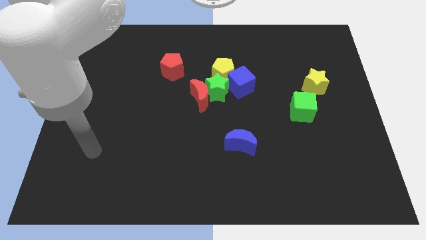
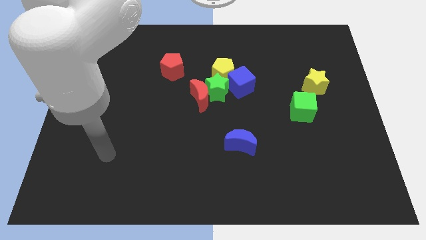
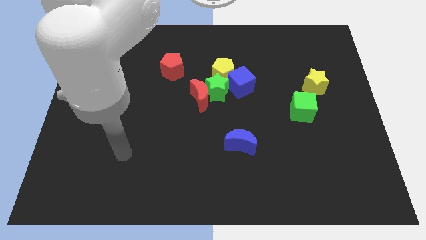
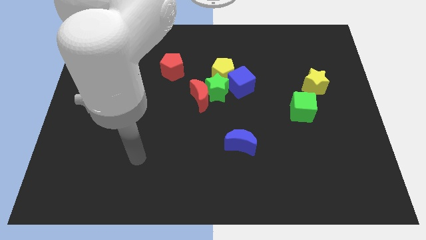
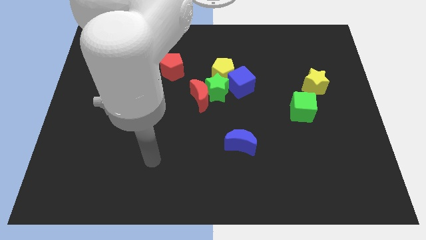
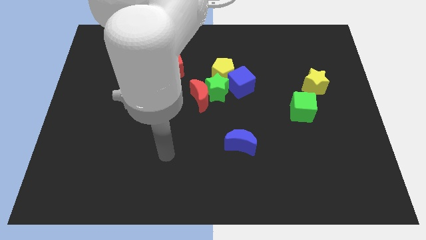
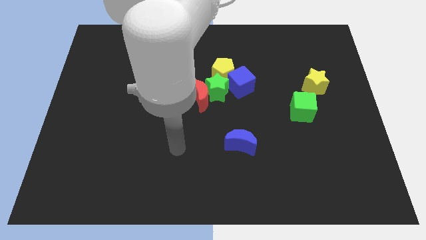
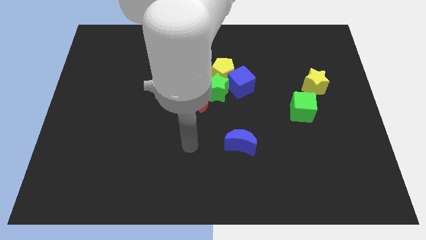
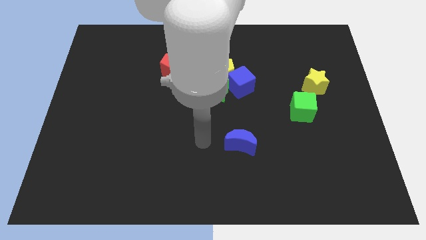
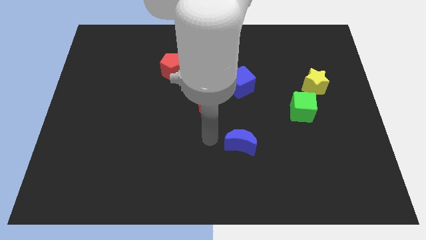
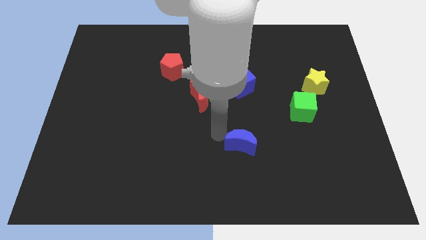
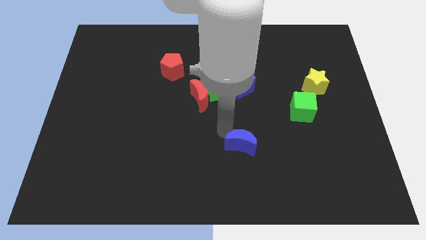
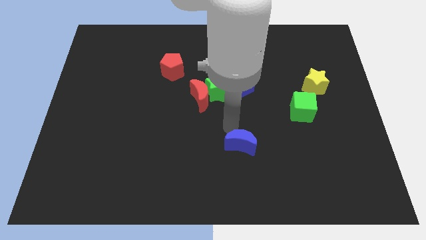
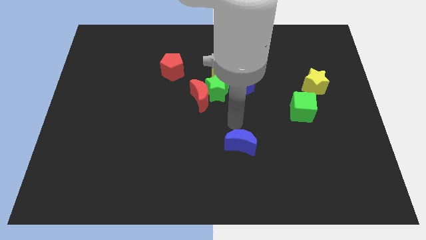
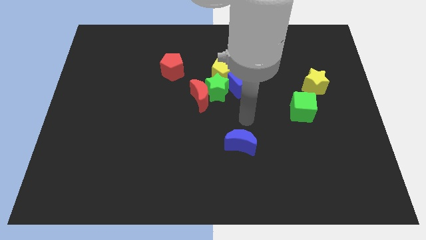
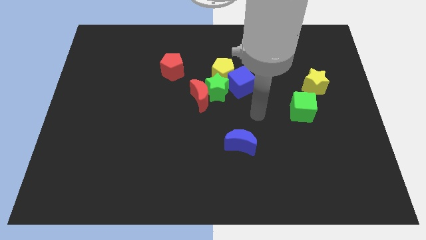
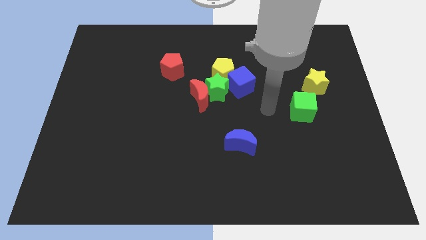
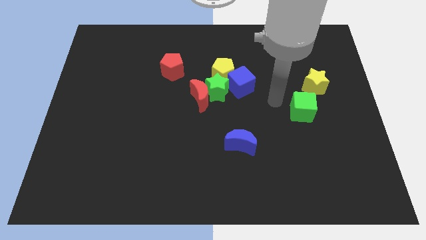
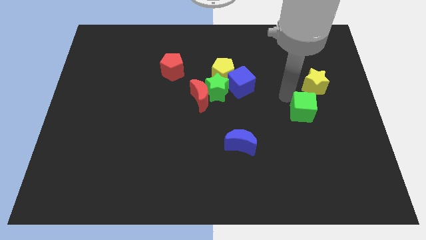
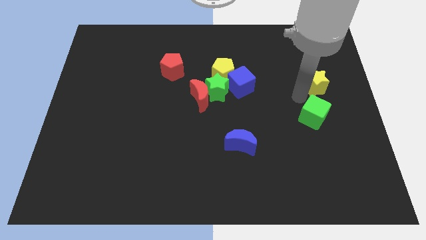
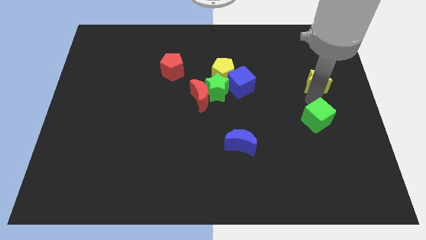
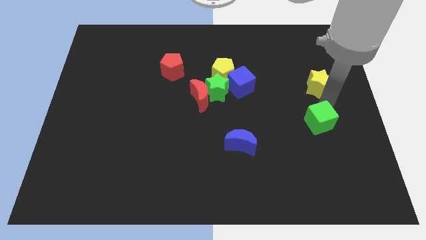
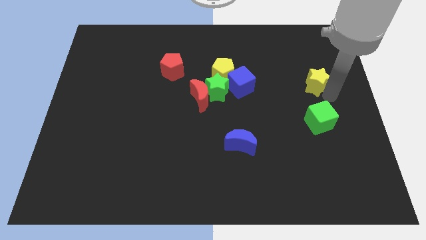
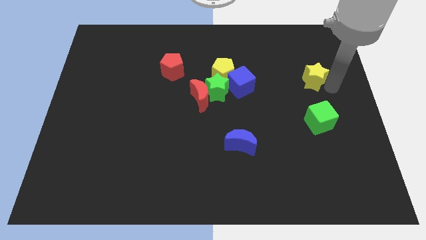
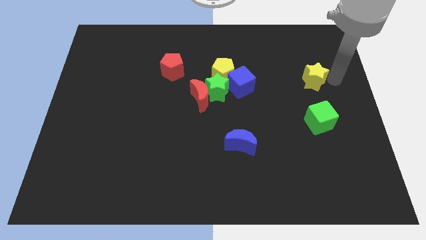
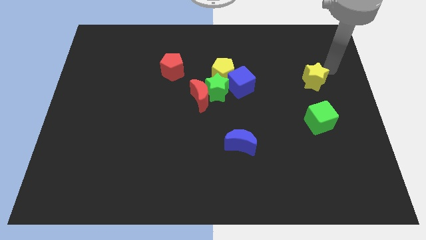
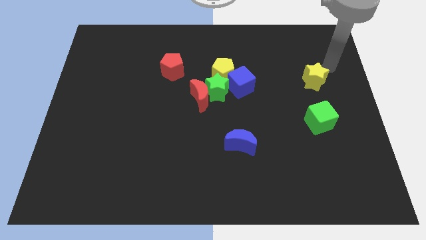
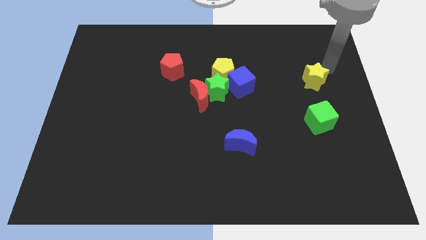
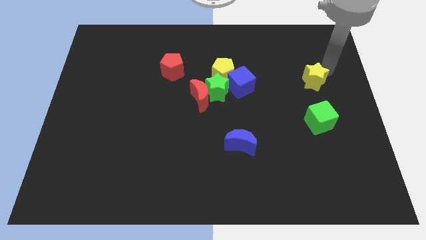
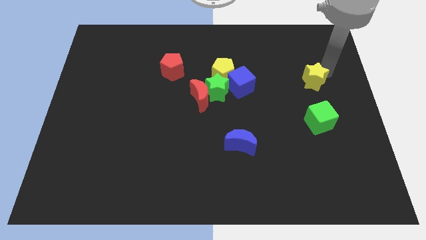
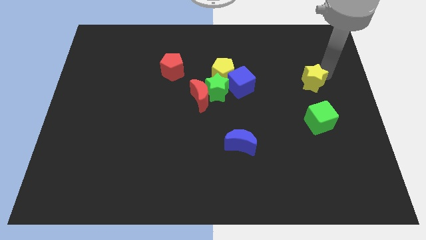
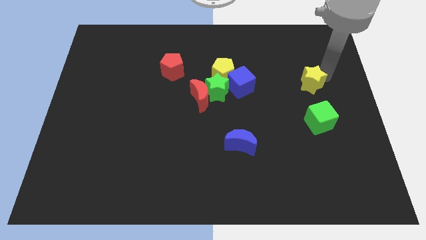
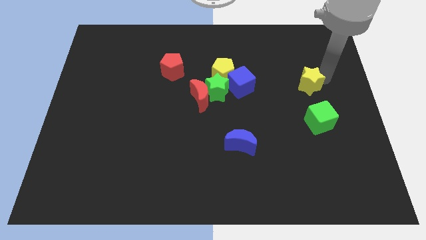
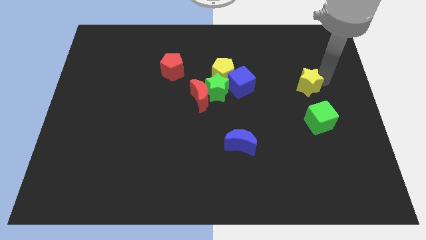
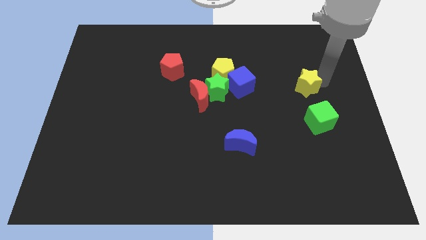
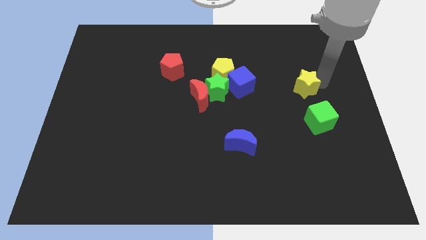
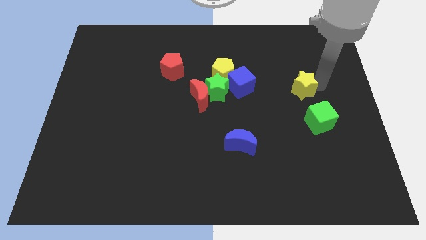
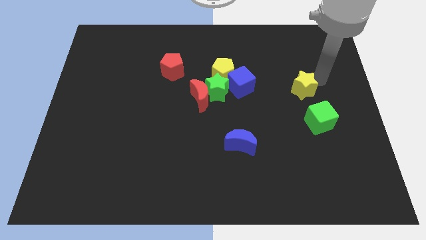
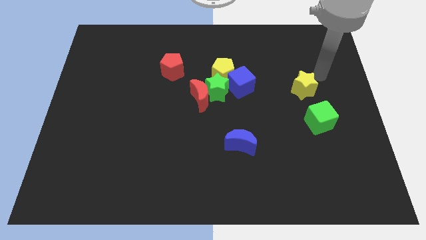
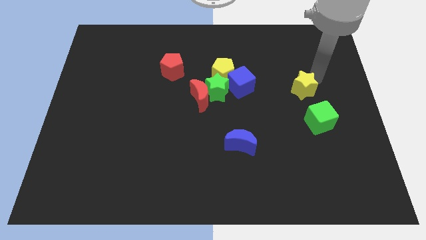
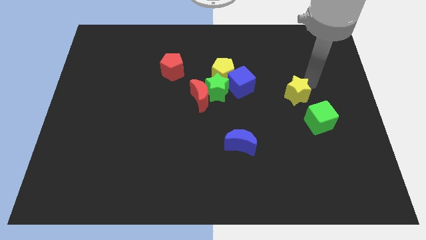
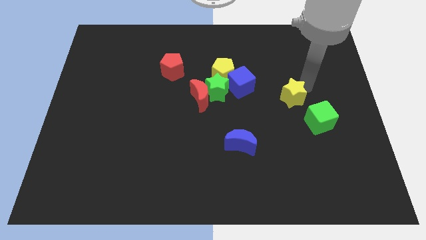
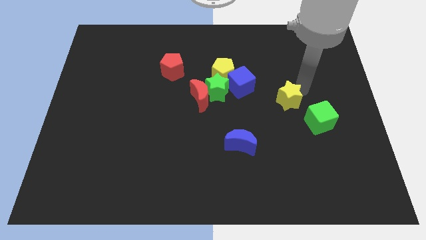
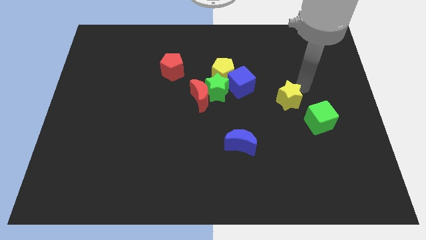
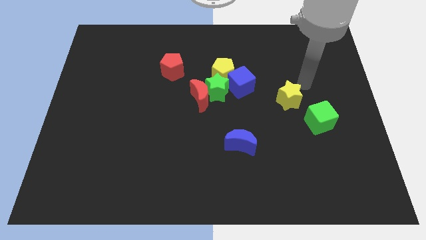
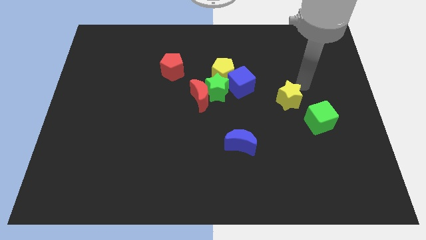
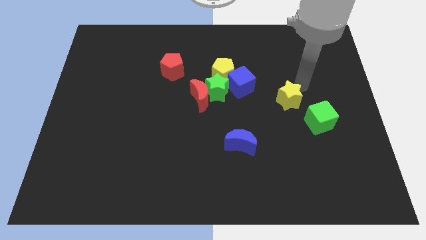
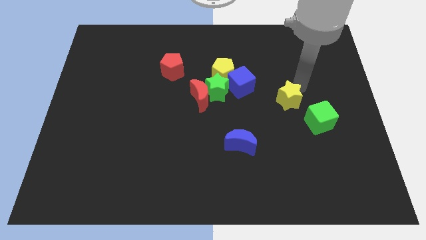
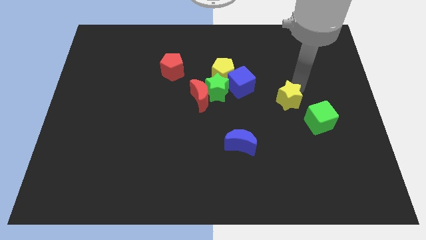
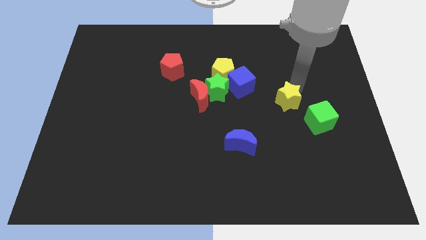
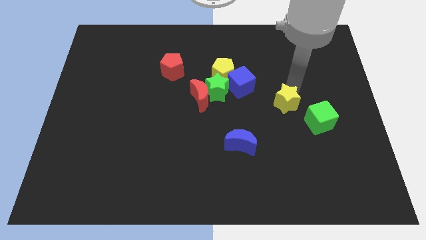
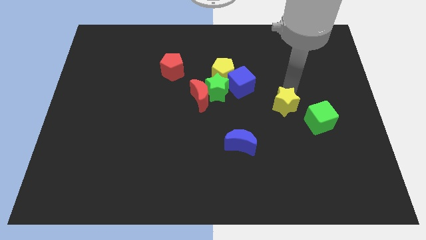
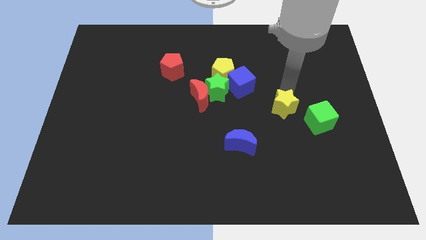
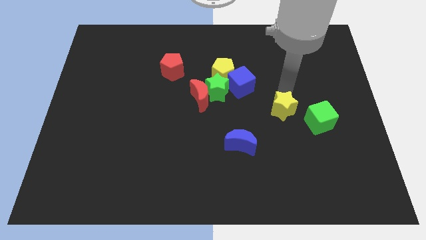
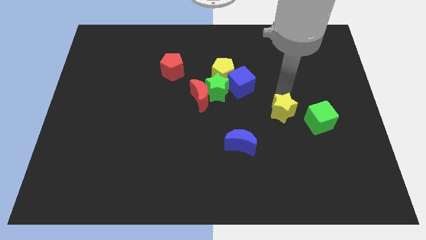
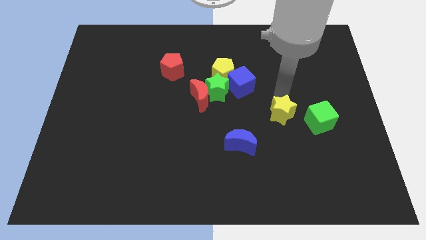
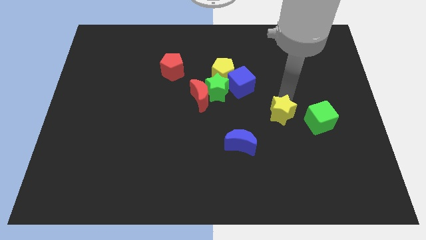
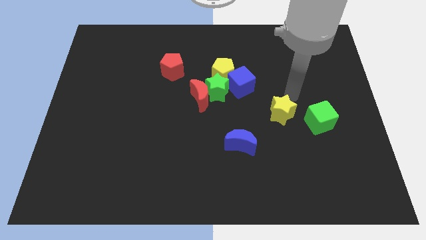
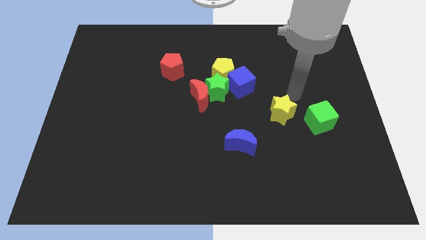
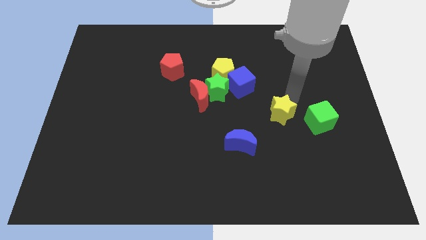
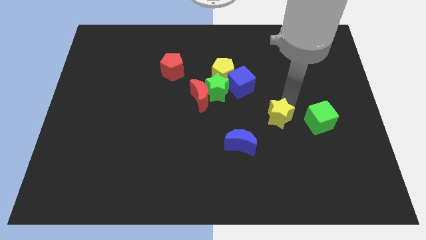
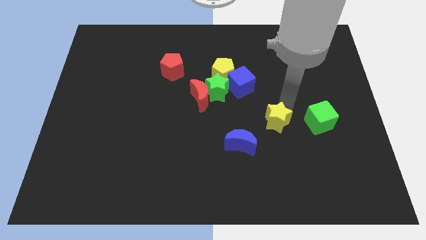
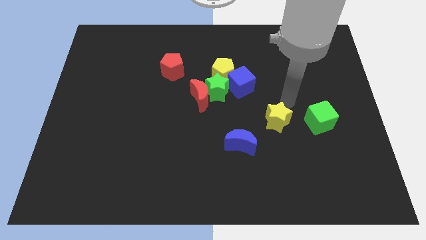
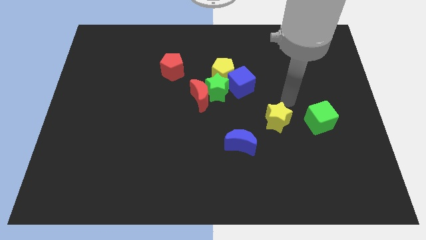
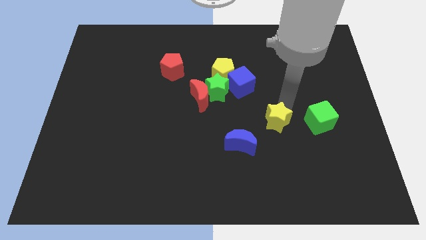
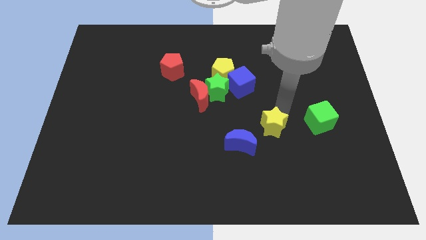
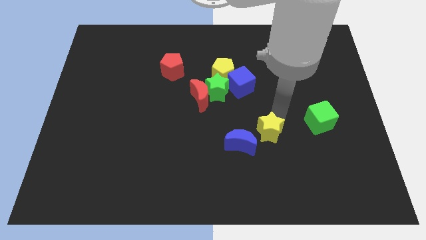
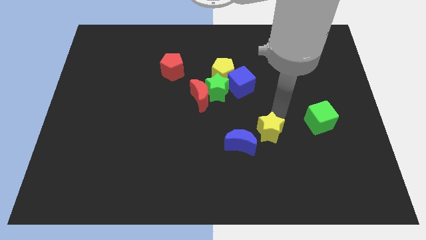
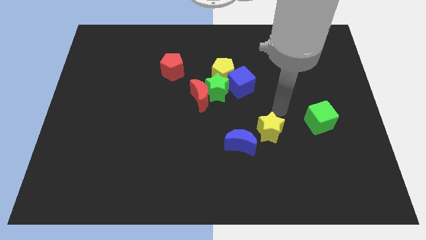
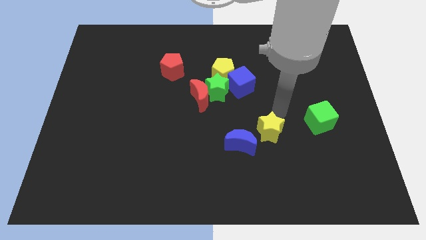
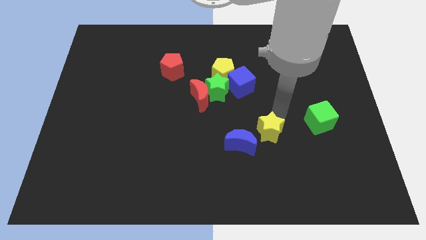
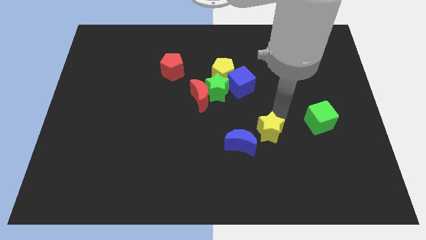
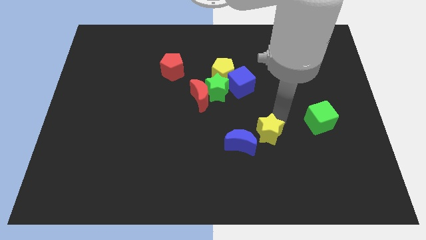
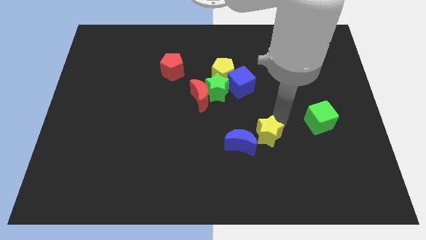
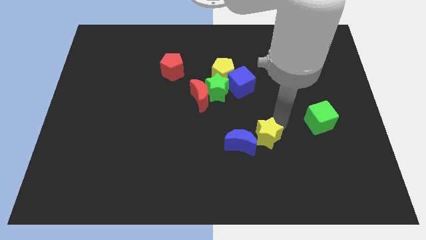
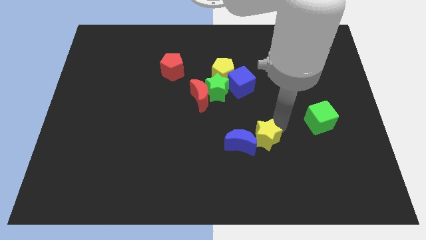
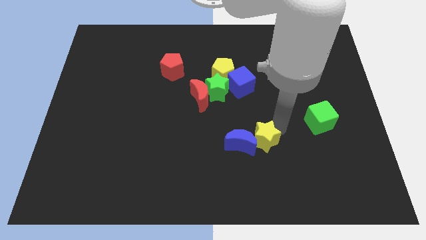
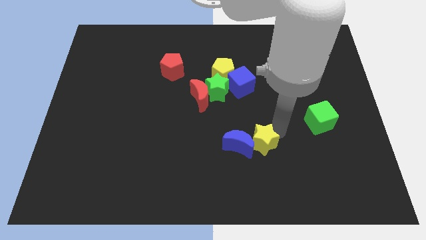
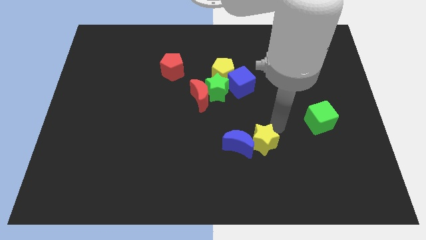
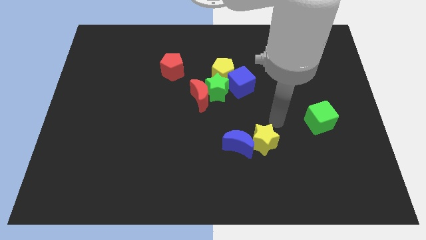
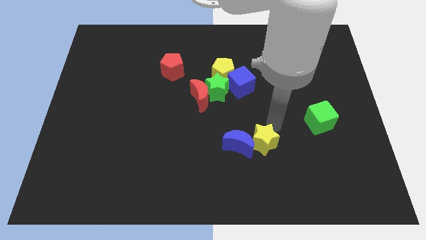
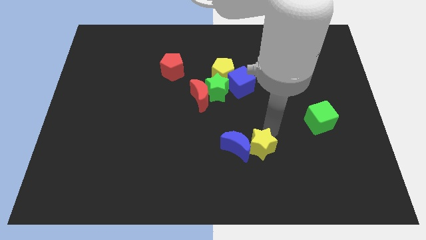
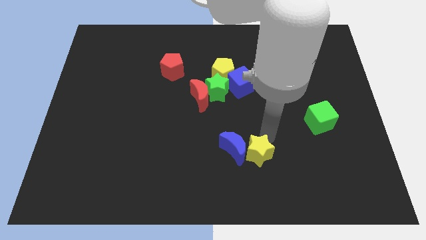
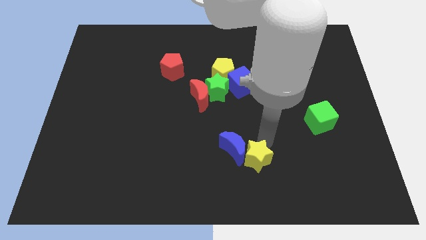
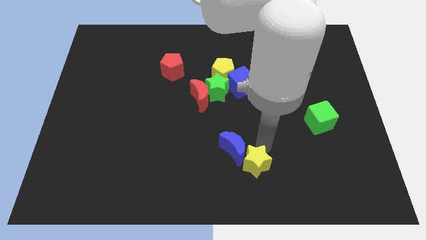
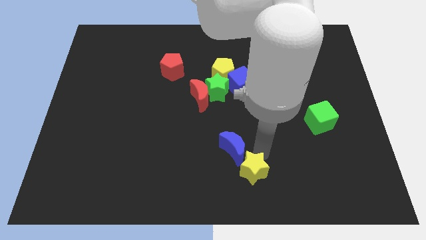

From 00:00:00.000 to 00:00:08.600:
push the yellow star to the bottom side
